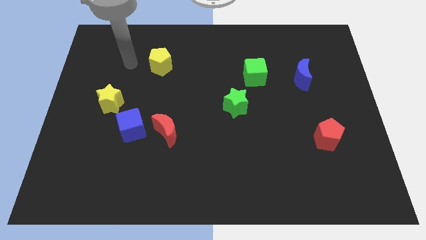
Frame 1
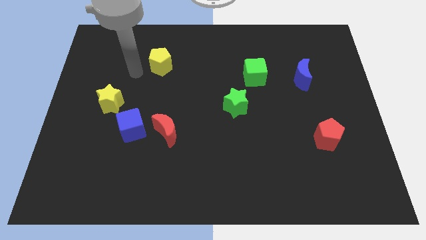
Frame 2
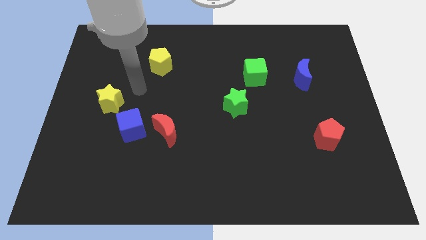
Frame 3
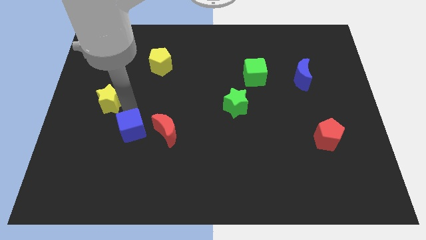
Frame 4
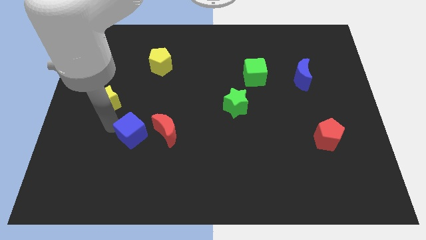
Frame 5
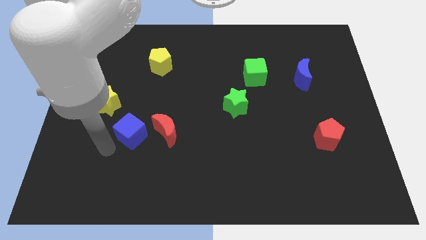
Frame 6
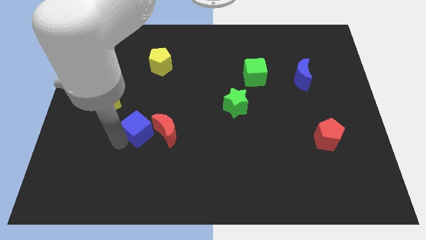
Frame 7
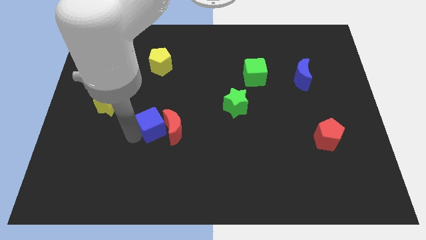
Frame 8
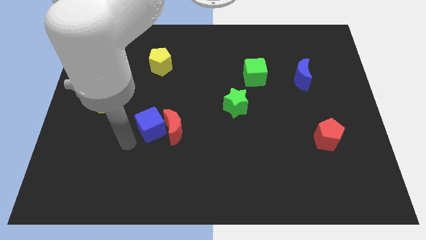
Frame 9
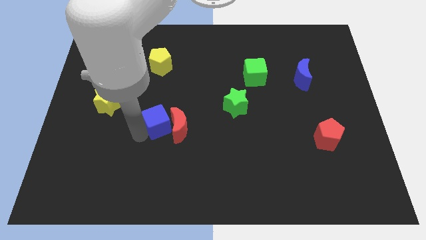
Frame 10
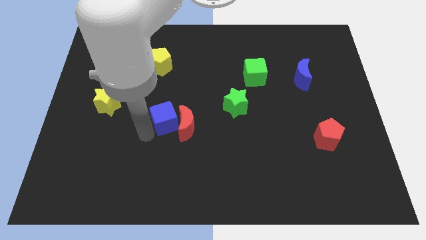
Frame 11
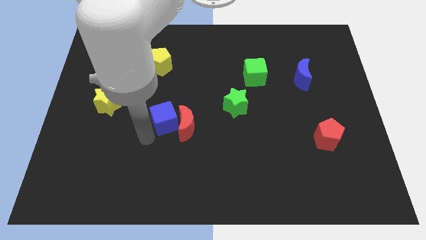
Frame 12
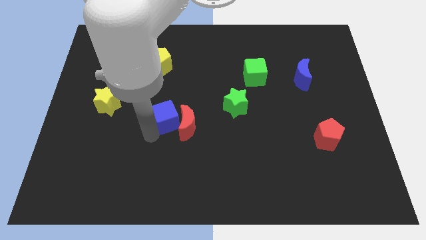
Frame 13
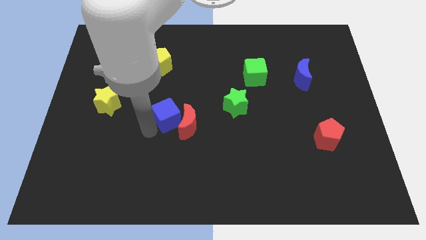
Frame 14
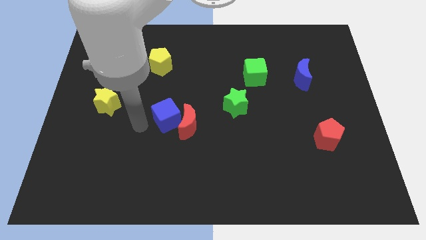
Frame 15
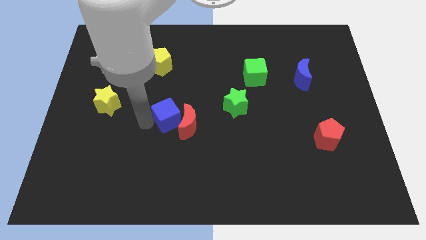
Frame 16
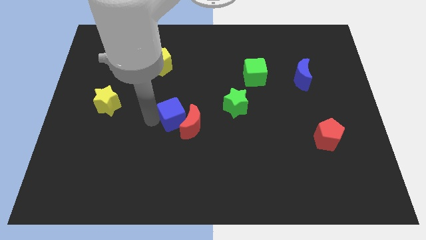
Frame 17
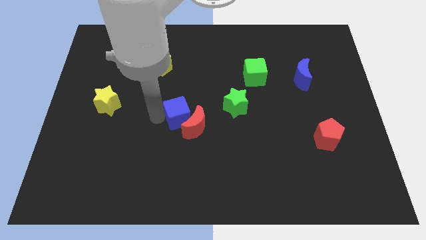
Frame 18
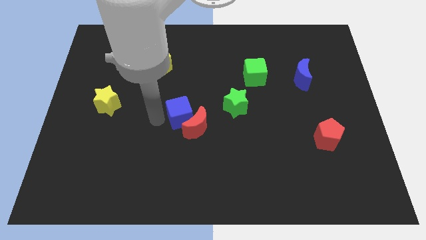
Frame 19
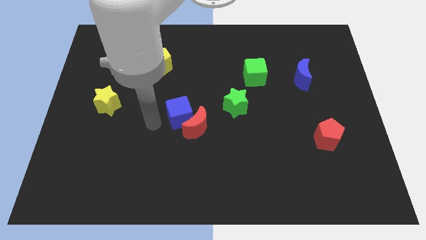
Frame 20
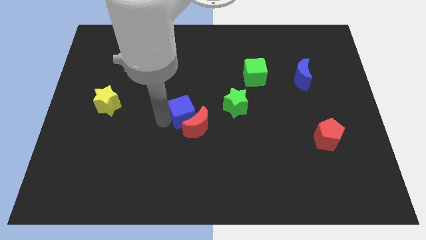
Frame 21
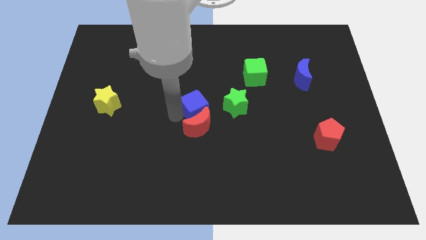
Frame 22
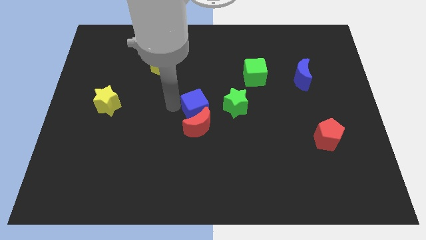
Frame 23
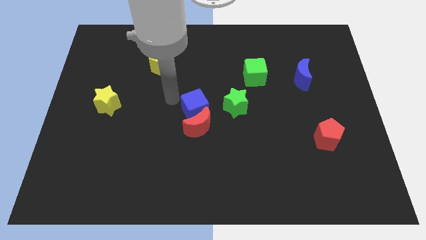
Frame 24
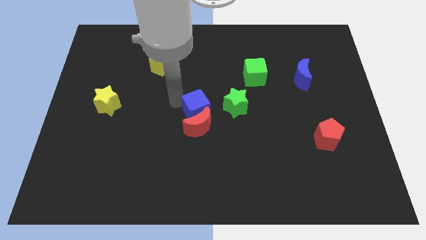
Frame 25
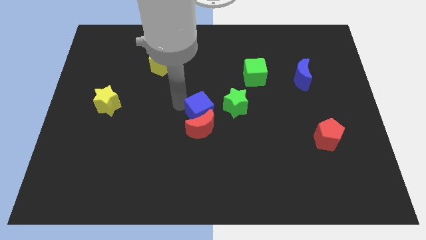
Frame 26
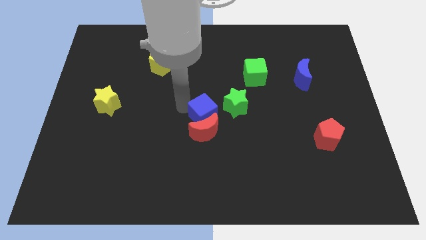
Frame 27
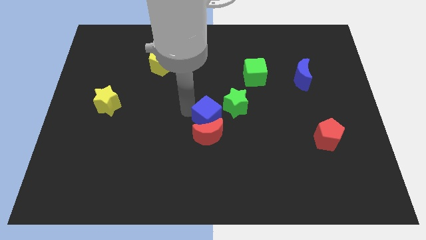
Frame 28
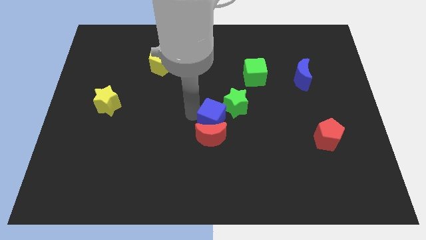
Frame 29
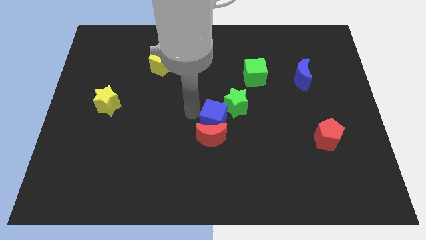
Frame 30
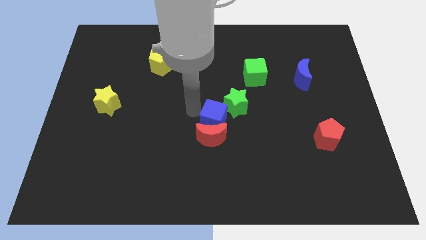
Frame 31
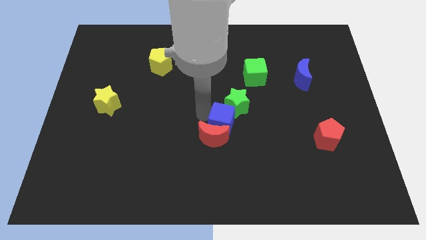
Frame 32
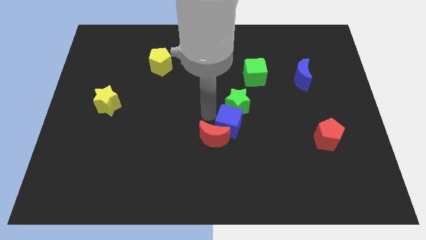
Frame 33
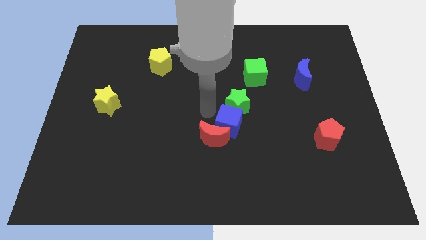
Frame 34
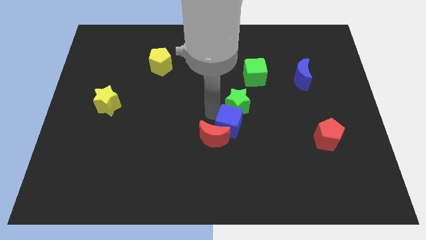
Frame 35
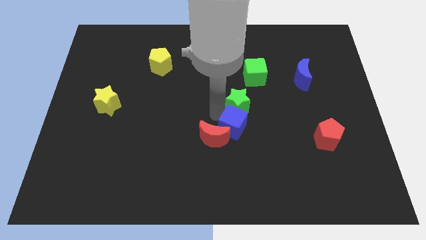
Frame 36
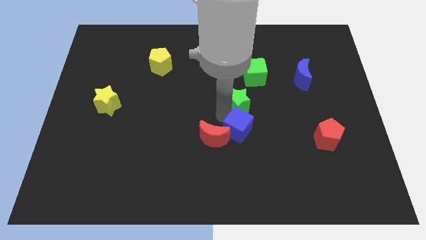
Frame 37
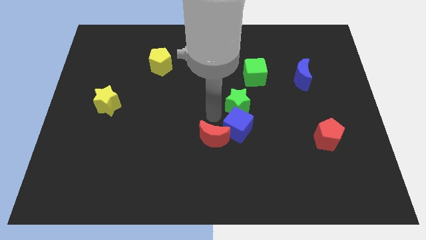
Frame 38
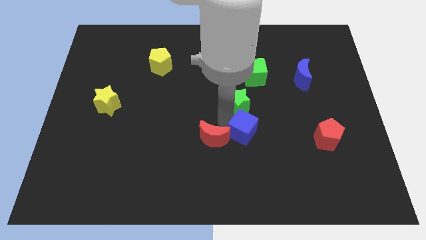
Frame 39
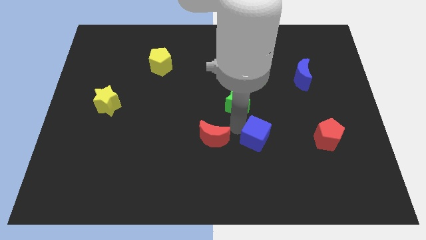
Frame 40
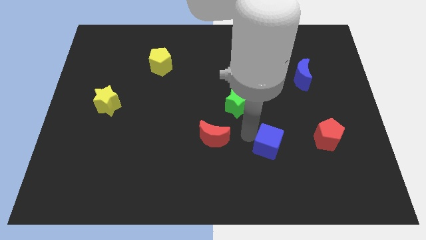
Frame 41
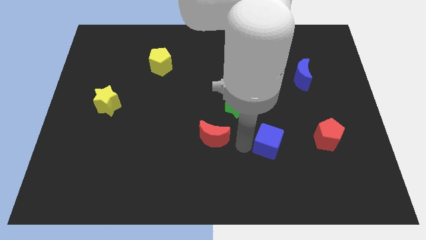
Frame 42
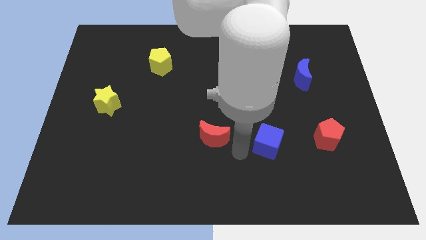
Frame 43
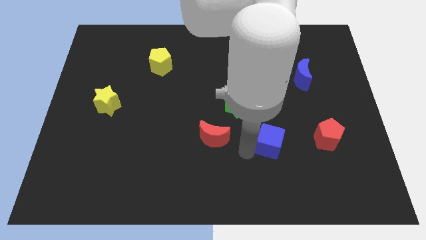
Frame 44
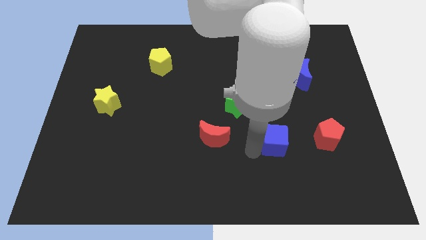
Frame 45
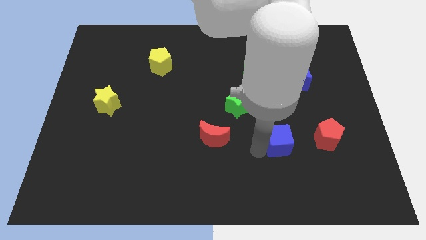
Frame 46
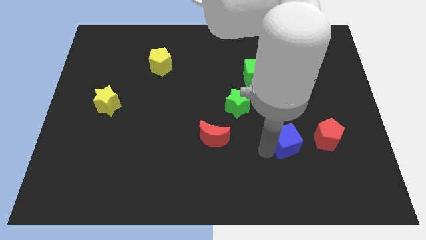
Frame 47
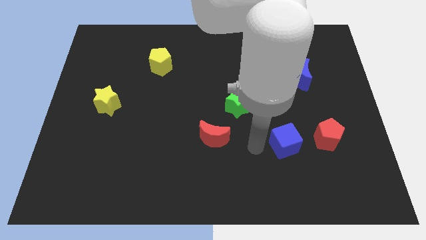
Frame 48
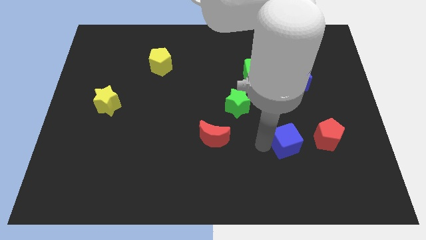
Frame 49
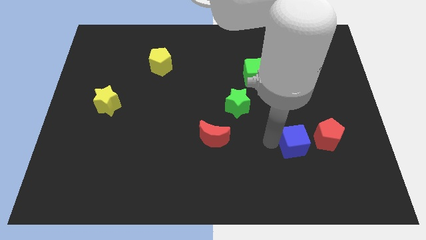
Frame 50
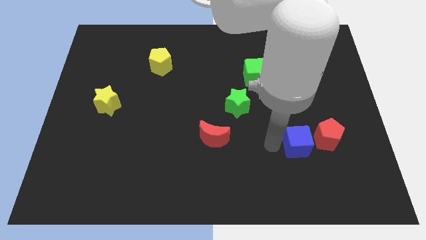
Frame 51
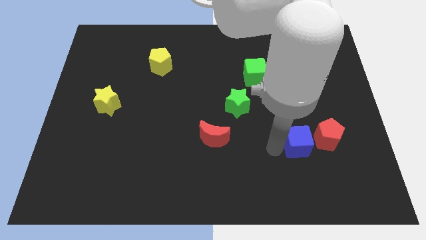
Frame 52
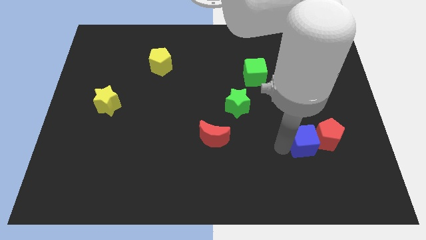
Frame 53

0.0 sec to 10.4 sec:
put the blue cube close to the red pentagon

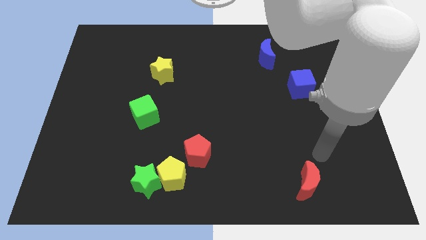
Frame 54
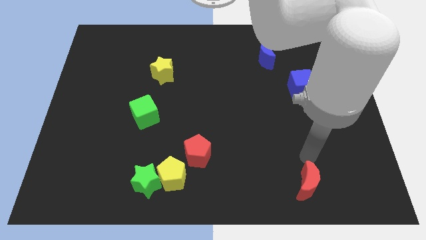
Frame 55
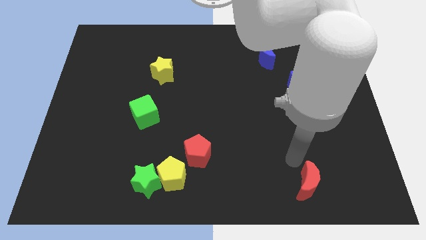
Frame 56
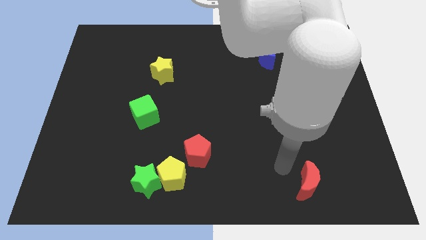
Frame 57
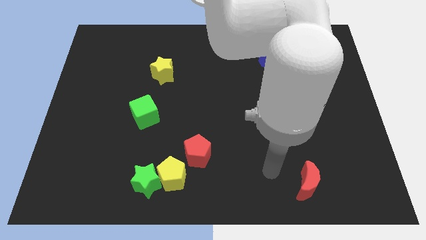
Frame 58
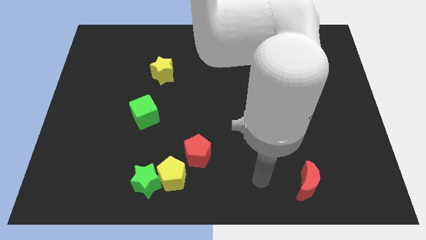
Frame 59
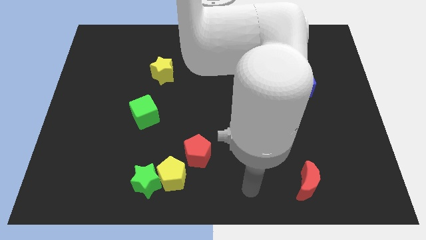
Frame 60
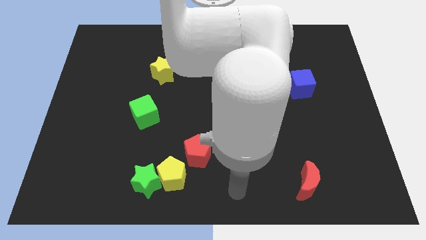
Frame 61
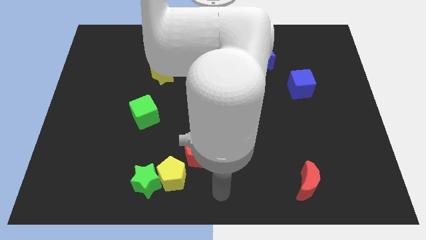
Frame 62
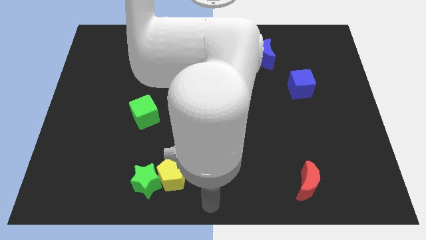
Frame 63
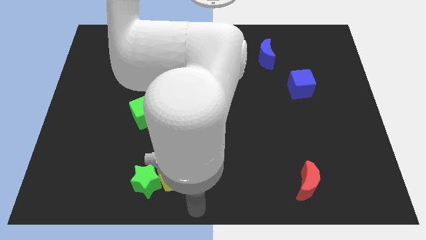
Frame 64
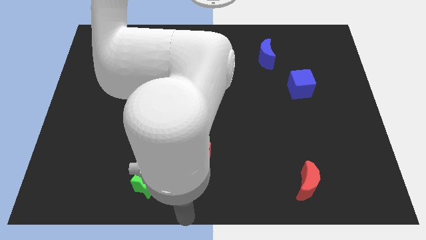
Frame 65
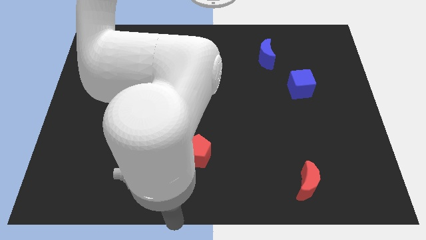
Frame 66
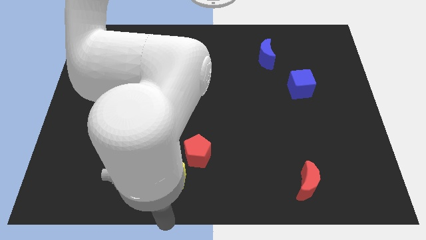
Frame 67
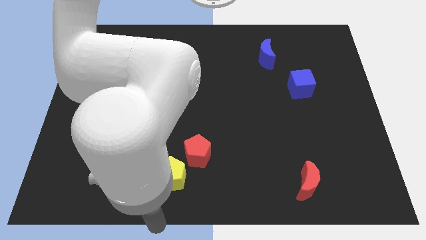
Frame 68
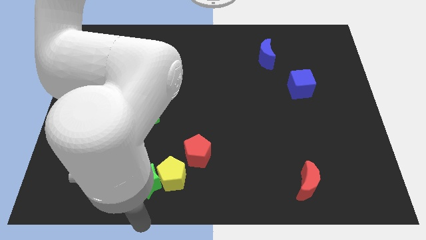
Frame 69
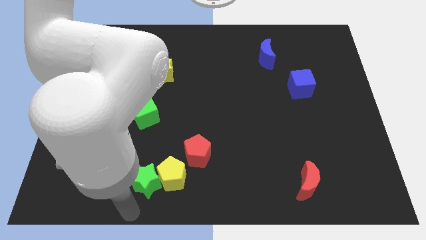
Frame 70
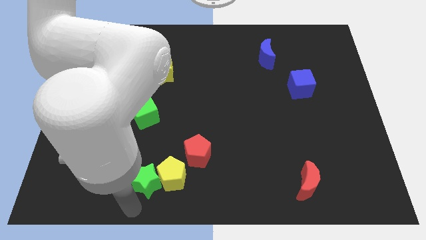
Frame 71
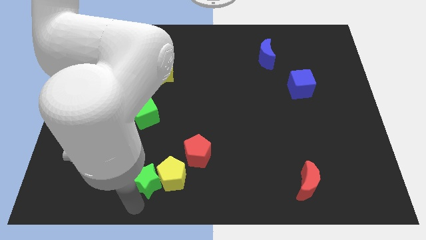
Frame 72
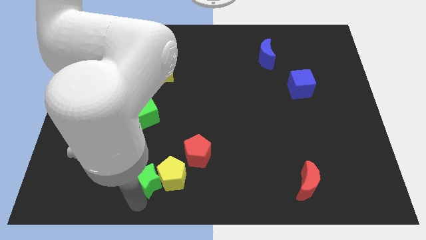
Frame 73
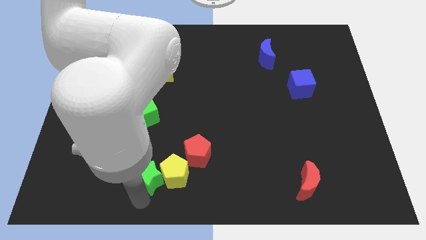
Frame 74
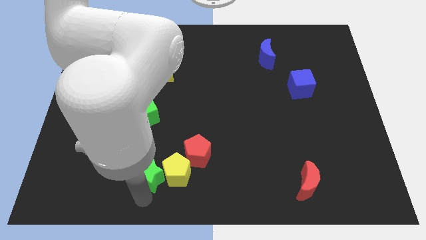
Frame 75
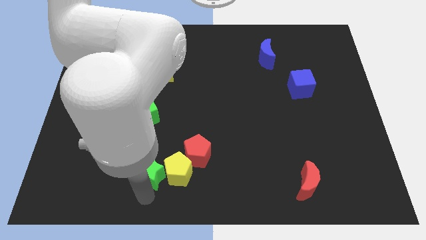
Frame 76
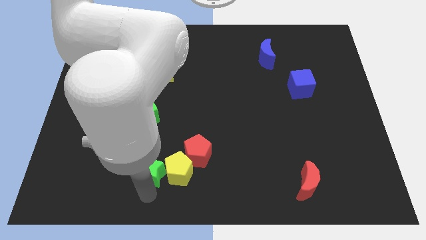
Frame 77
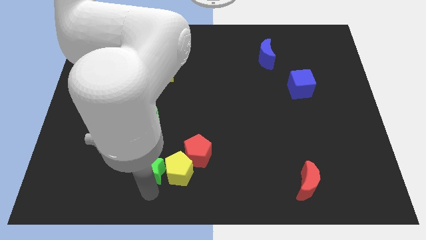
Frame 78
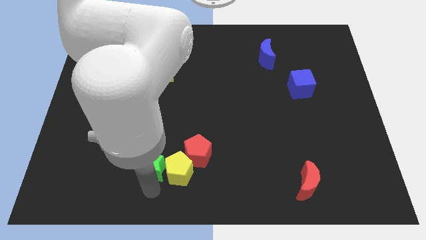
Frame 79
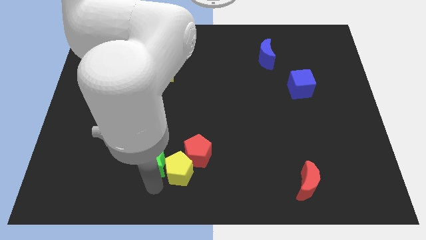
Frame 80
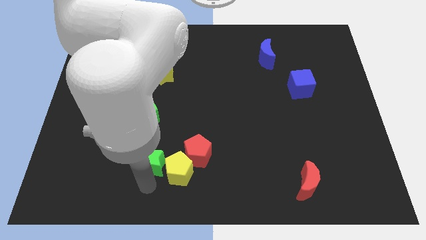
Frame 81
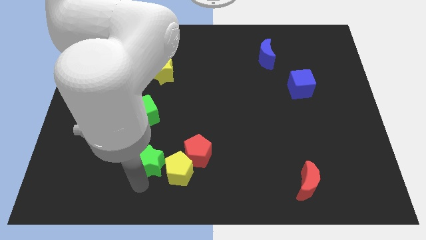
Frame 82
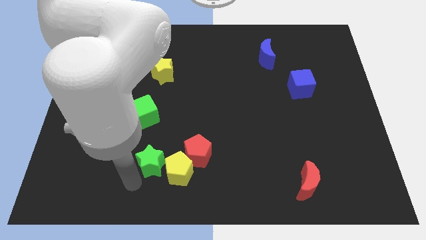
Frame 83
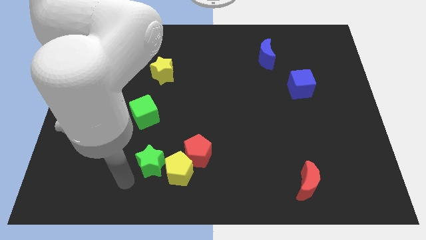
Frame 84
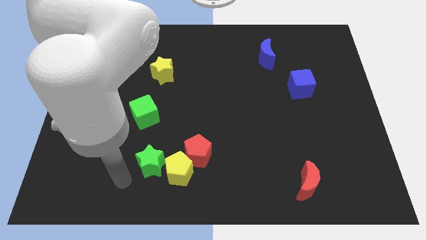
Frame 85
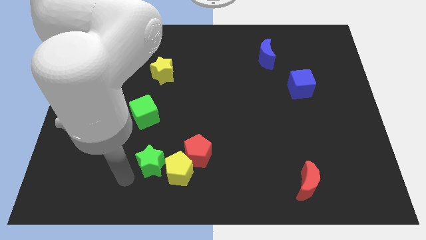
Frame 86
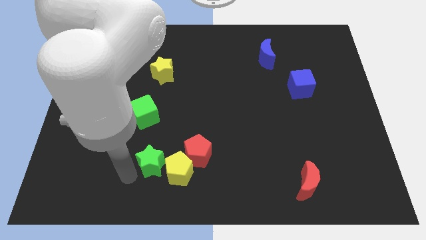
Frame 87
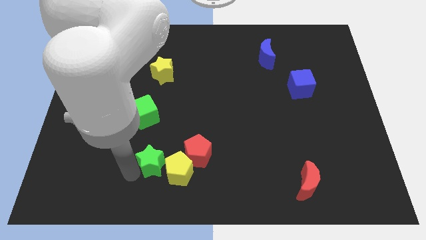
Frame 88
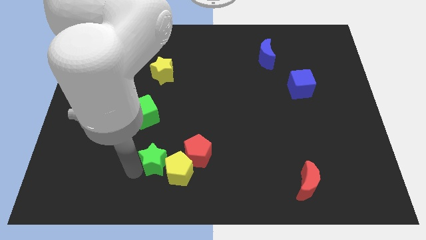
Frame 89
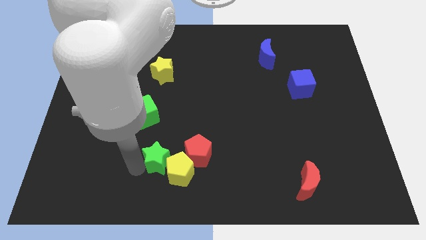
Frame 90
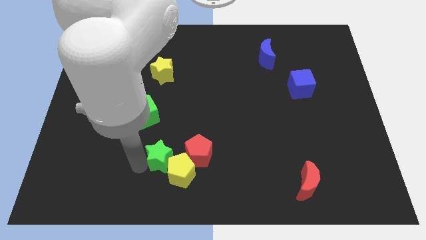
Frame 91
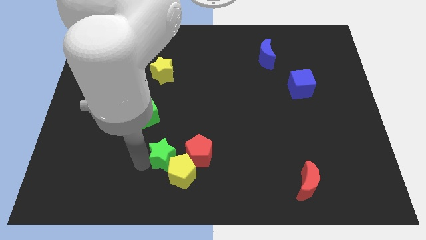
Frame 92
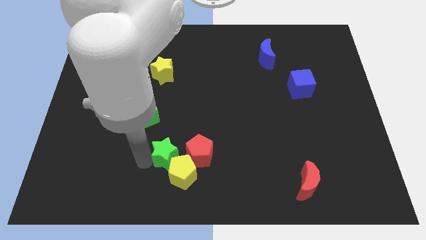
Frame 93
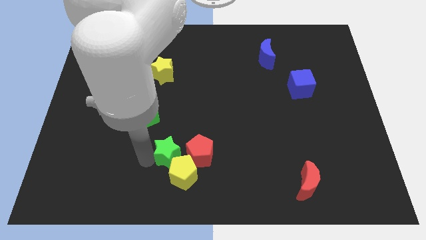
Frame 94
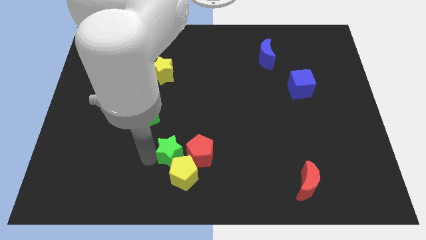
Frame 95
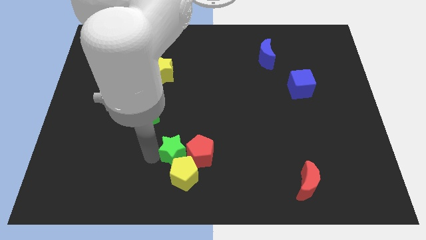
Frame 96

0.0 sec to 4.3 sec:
slide the green star to the red pentagon
